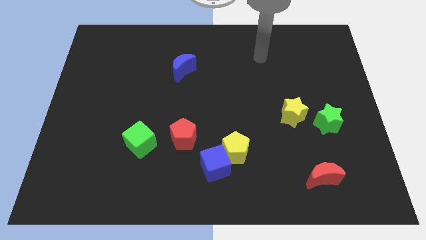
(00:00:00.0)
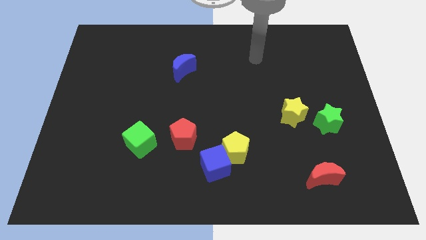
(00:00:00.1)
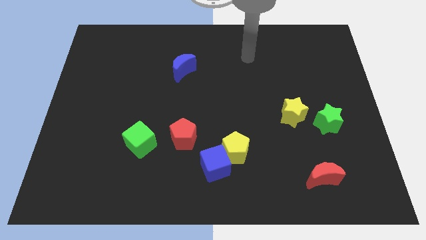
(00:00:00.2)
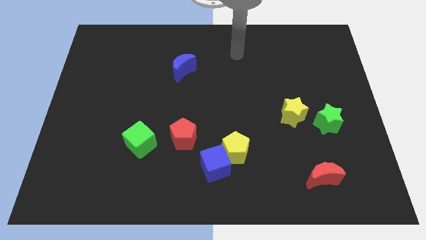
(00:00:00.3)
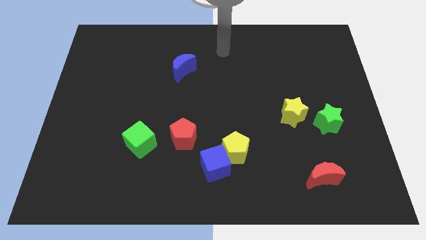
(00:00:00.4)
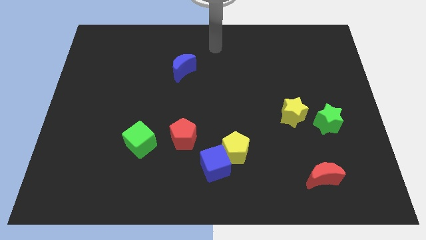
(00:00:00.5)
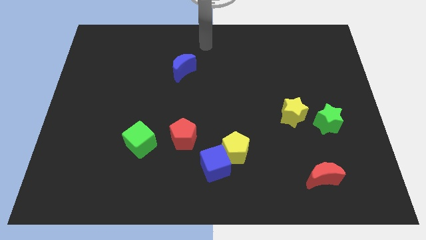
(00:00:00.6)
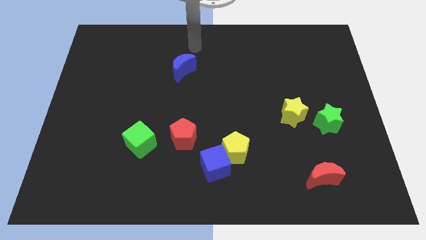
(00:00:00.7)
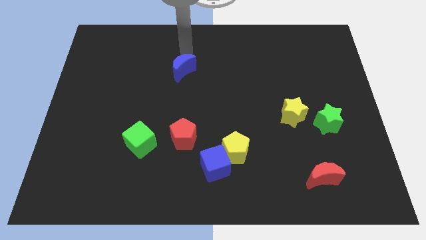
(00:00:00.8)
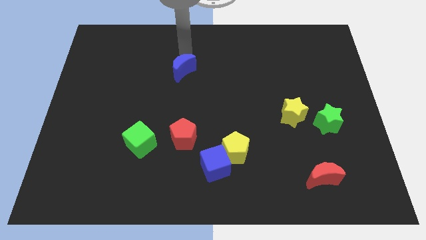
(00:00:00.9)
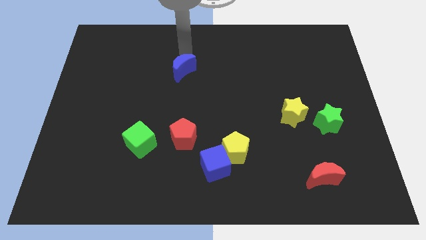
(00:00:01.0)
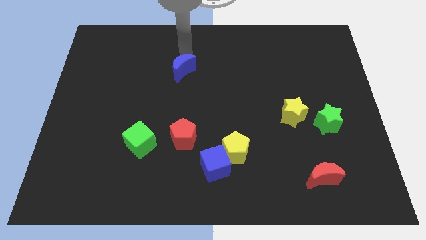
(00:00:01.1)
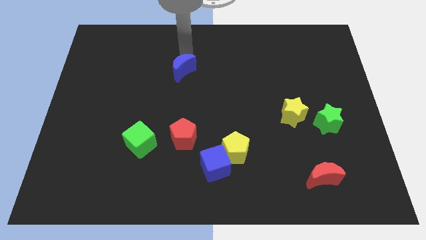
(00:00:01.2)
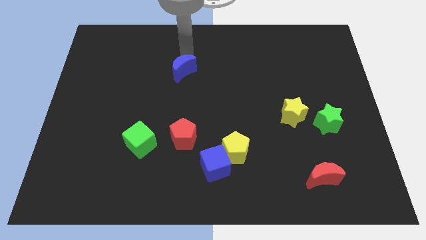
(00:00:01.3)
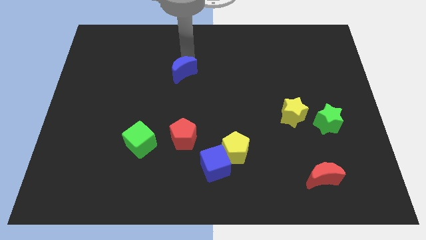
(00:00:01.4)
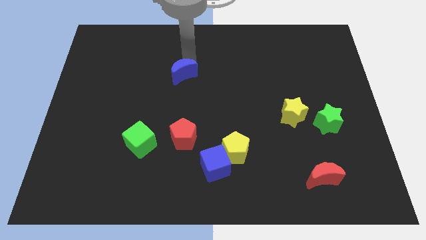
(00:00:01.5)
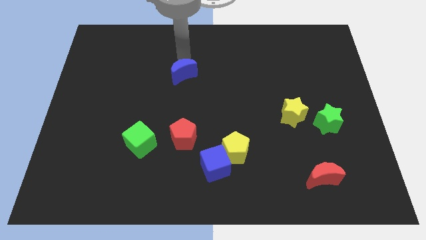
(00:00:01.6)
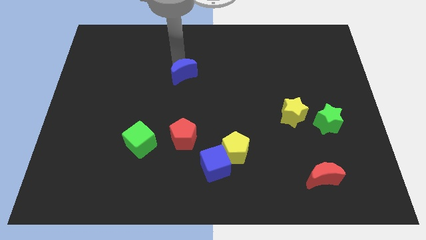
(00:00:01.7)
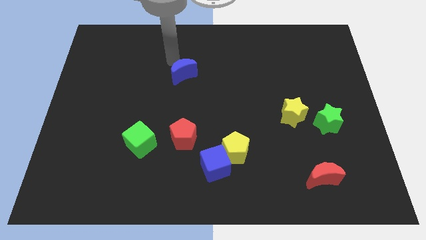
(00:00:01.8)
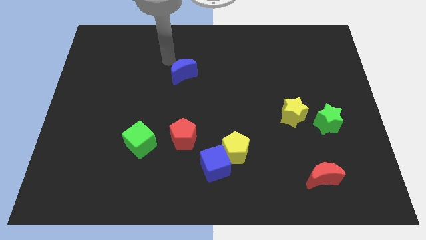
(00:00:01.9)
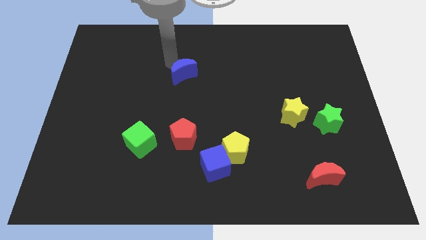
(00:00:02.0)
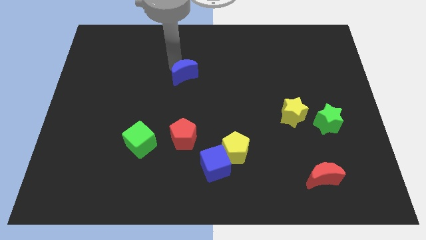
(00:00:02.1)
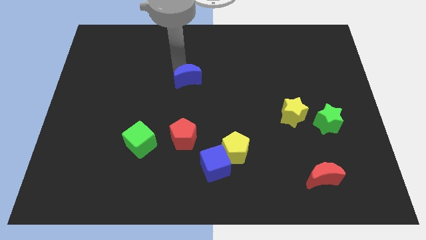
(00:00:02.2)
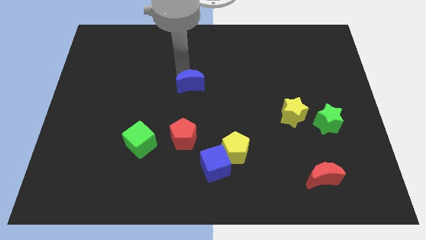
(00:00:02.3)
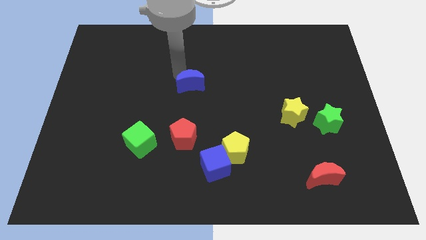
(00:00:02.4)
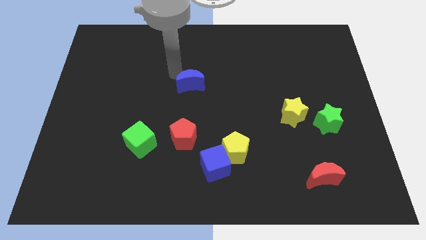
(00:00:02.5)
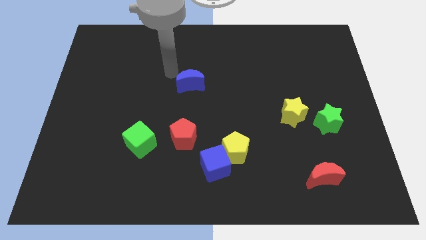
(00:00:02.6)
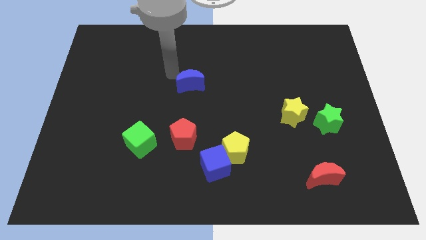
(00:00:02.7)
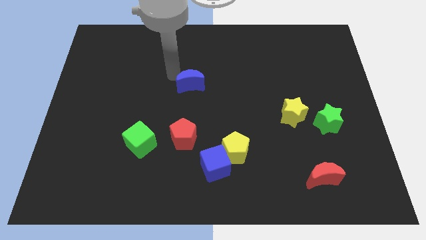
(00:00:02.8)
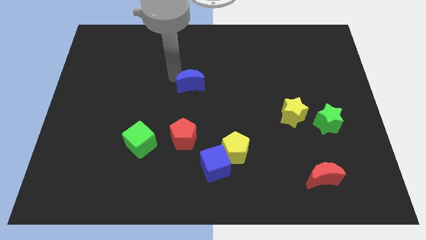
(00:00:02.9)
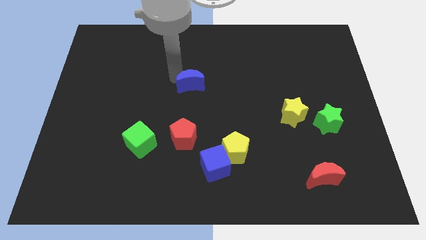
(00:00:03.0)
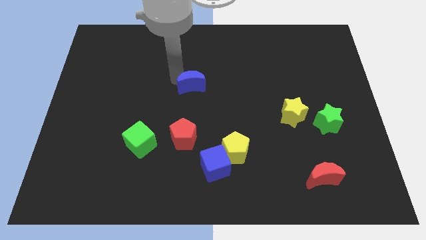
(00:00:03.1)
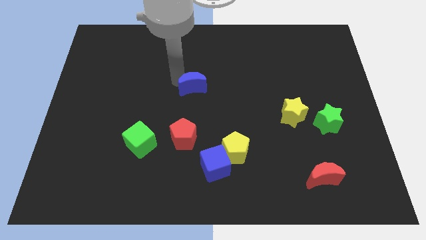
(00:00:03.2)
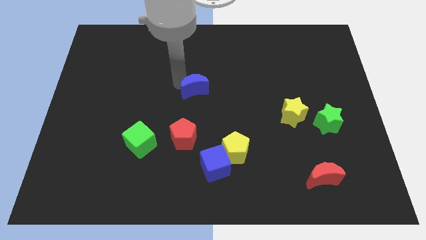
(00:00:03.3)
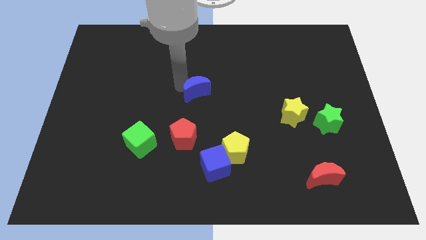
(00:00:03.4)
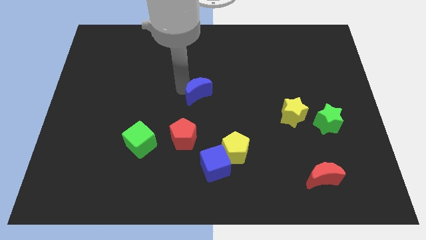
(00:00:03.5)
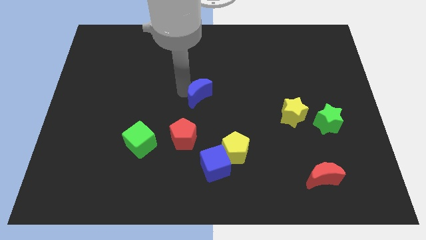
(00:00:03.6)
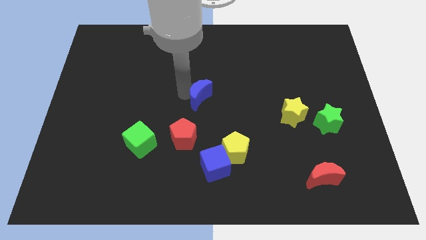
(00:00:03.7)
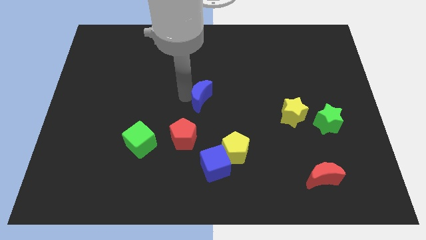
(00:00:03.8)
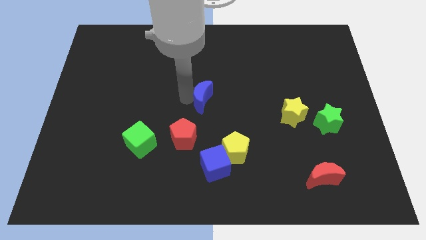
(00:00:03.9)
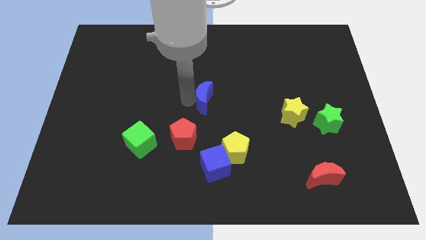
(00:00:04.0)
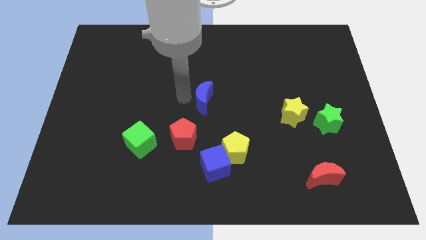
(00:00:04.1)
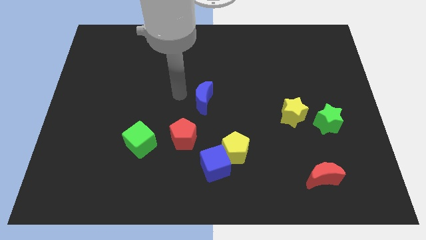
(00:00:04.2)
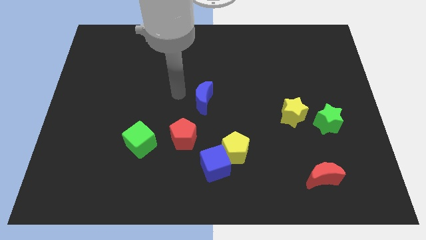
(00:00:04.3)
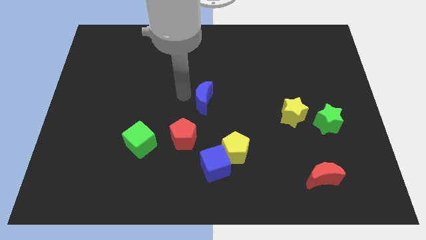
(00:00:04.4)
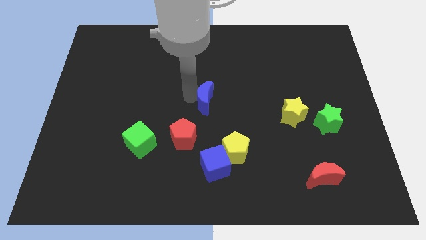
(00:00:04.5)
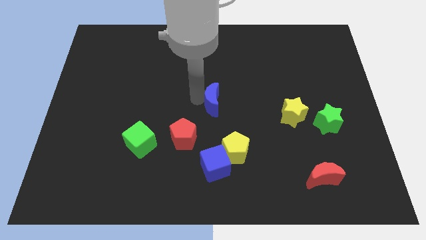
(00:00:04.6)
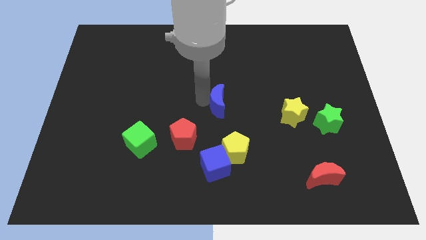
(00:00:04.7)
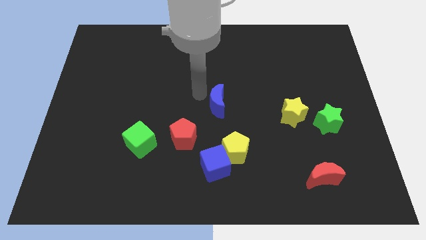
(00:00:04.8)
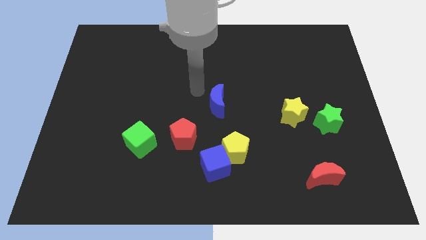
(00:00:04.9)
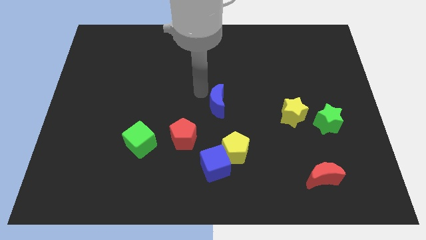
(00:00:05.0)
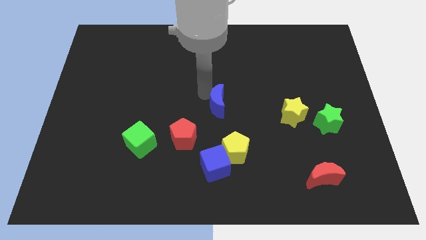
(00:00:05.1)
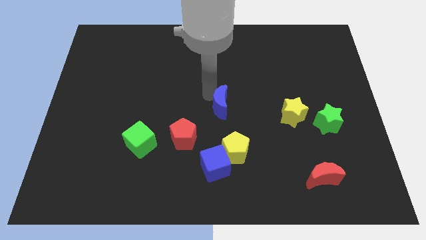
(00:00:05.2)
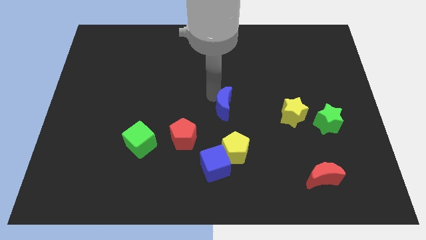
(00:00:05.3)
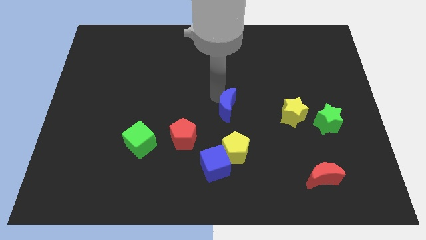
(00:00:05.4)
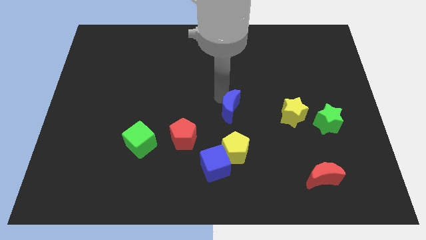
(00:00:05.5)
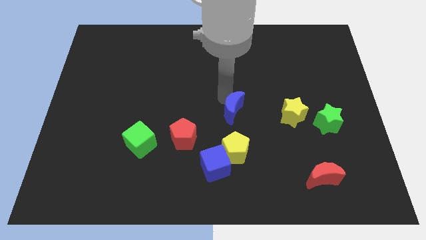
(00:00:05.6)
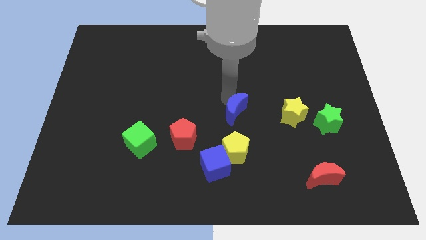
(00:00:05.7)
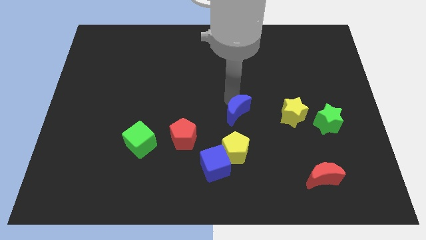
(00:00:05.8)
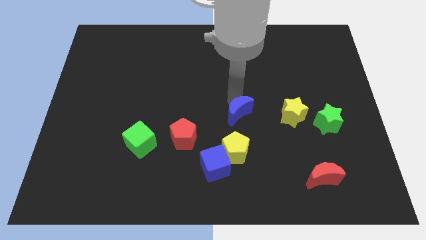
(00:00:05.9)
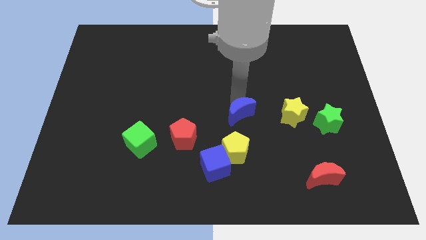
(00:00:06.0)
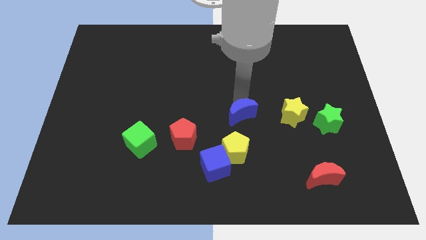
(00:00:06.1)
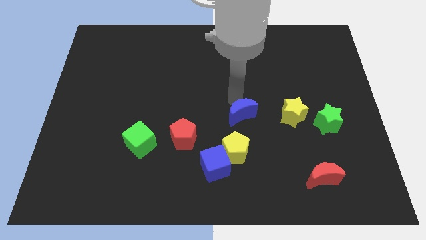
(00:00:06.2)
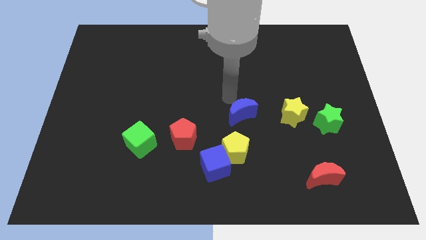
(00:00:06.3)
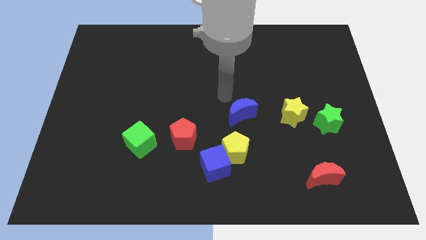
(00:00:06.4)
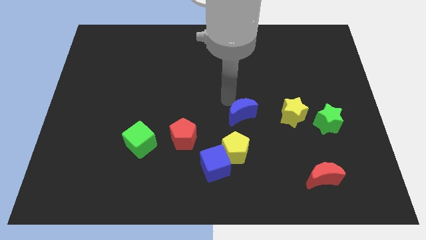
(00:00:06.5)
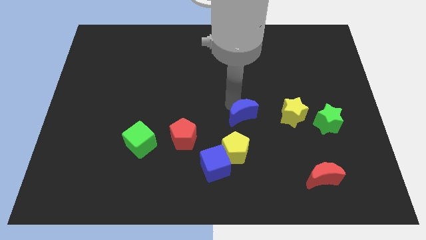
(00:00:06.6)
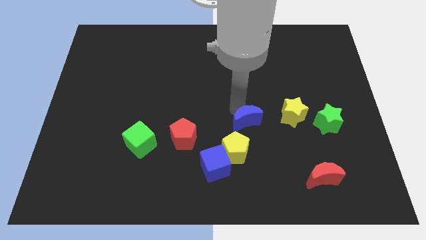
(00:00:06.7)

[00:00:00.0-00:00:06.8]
push the blue moon to the top right of the yellow pentagon
